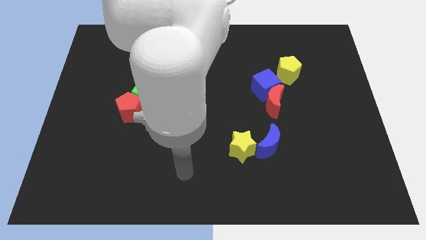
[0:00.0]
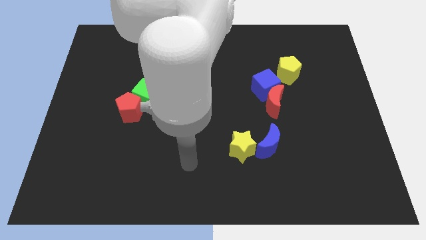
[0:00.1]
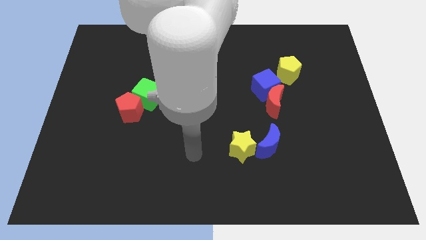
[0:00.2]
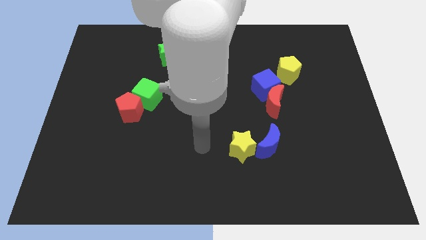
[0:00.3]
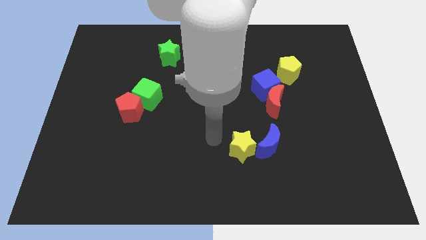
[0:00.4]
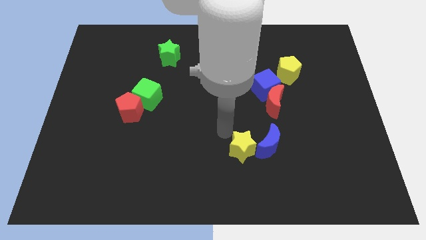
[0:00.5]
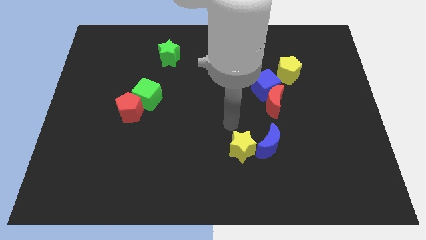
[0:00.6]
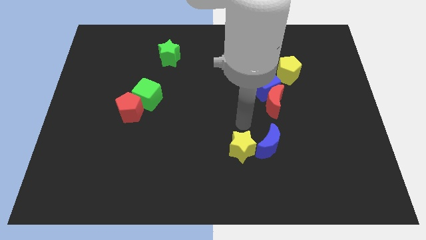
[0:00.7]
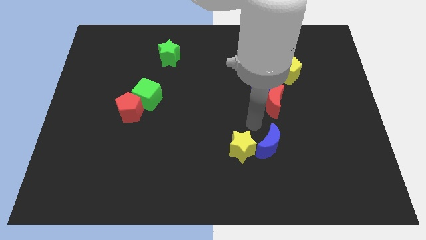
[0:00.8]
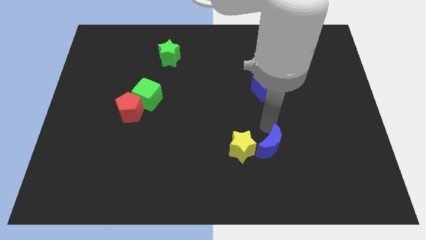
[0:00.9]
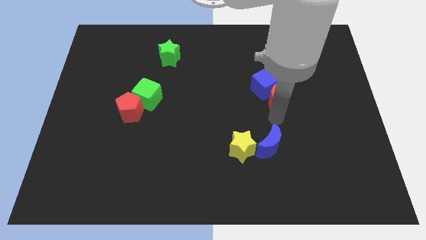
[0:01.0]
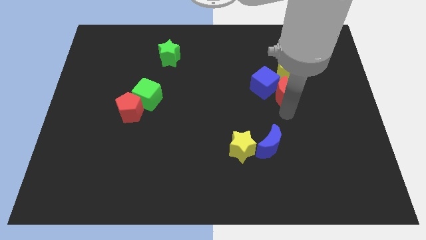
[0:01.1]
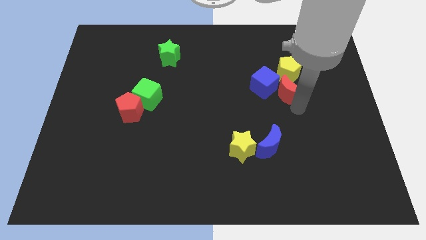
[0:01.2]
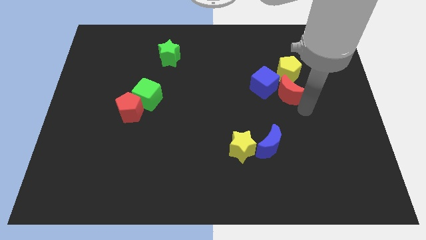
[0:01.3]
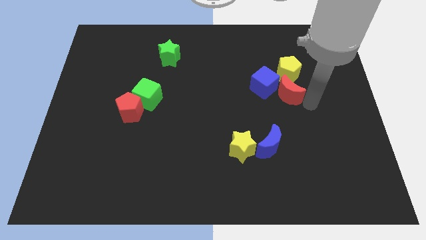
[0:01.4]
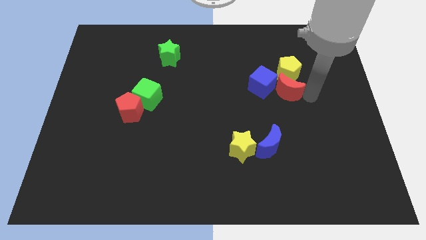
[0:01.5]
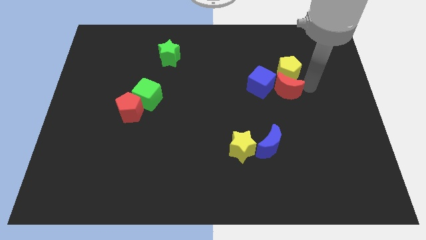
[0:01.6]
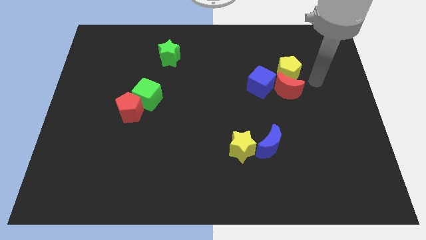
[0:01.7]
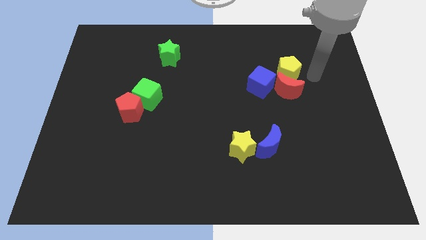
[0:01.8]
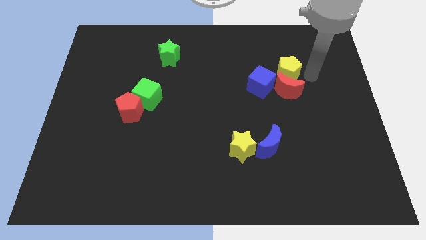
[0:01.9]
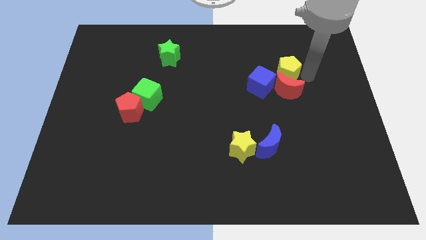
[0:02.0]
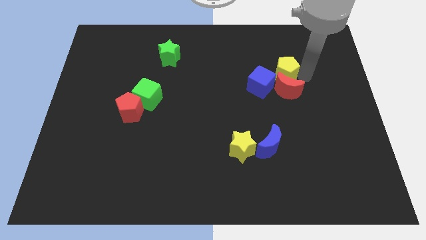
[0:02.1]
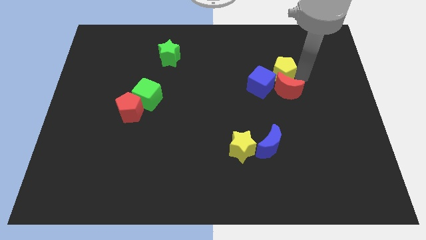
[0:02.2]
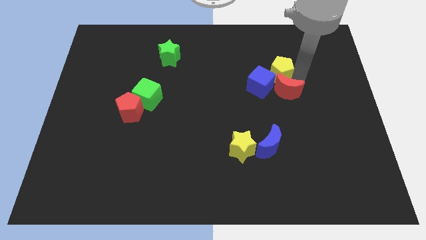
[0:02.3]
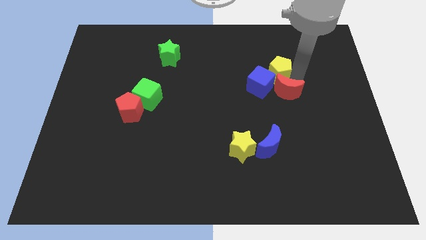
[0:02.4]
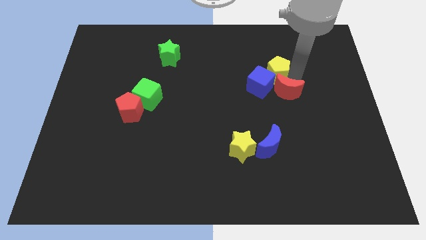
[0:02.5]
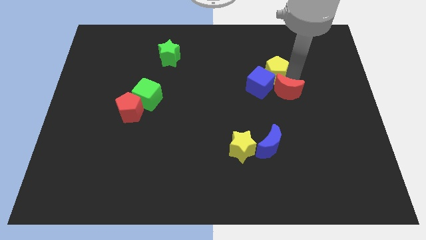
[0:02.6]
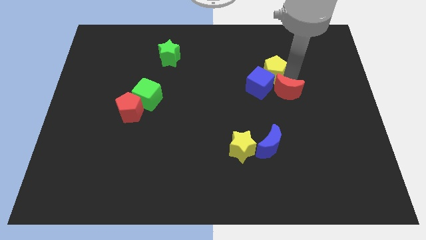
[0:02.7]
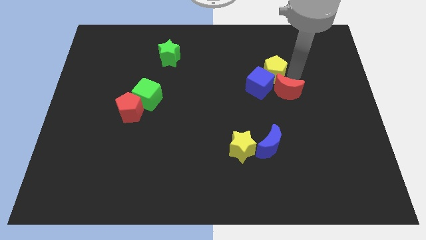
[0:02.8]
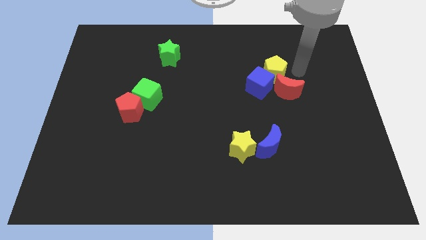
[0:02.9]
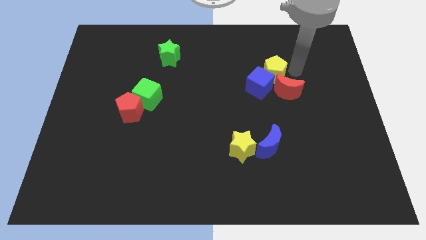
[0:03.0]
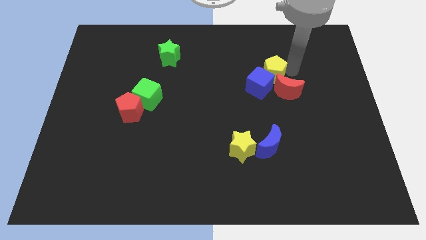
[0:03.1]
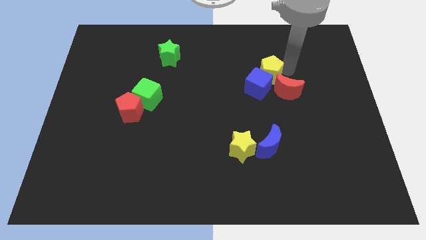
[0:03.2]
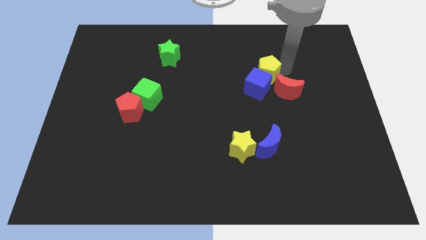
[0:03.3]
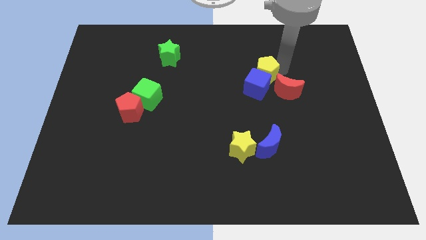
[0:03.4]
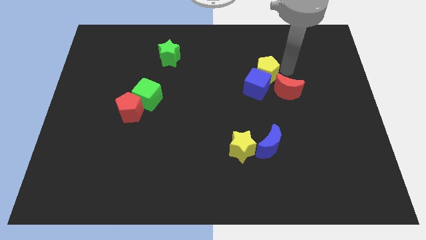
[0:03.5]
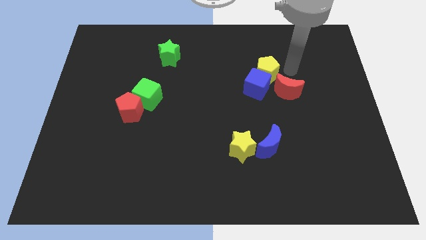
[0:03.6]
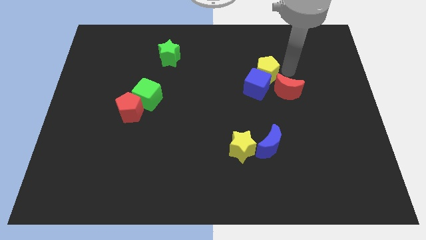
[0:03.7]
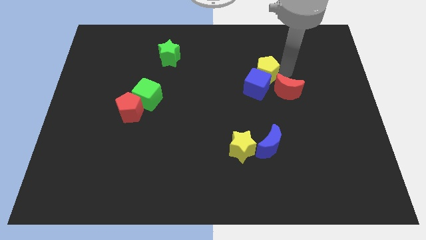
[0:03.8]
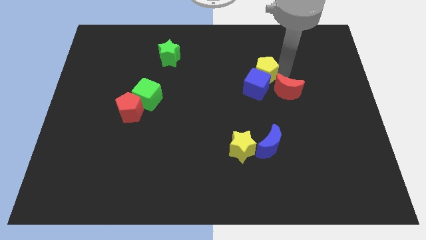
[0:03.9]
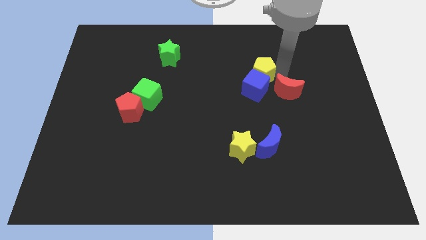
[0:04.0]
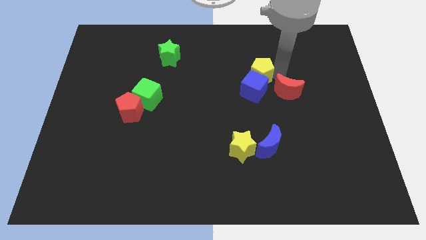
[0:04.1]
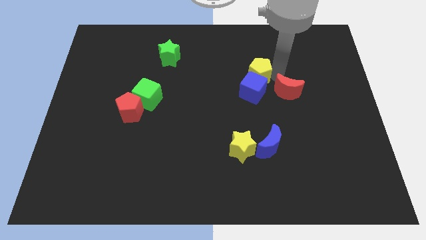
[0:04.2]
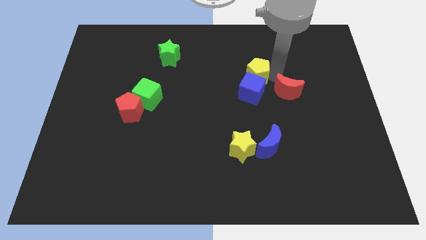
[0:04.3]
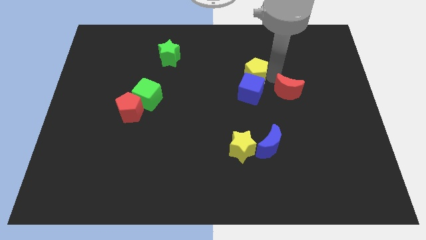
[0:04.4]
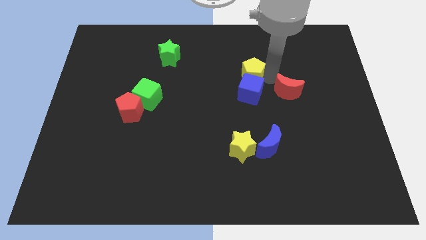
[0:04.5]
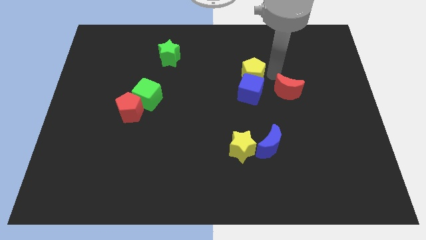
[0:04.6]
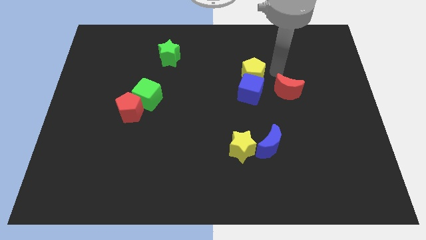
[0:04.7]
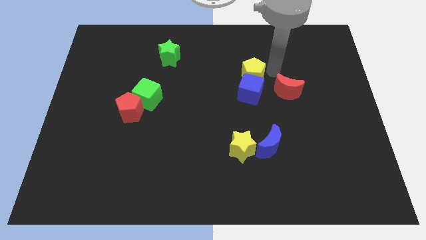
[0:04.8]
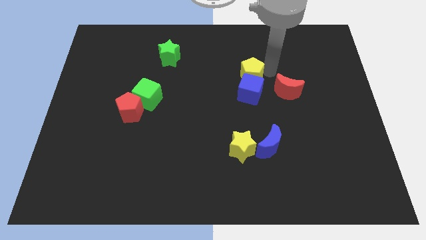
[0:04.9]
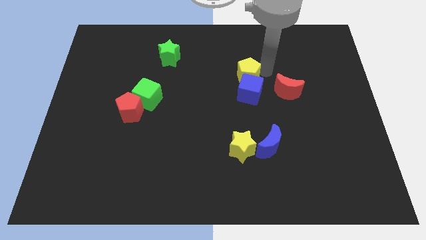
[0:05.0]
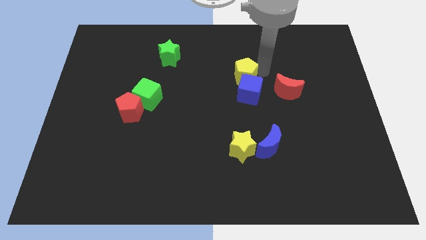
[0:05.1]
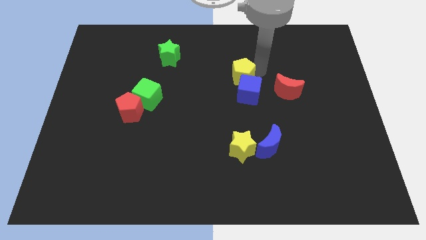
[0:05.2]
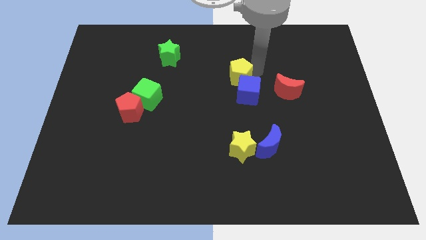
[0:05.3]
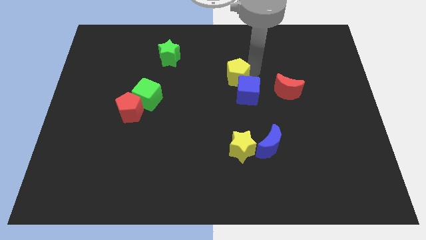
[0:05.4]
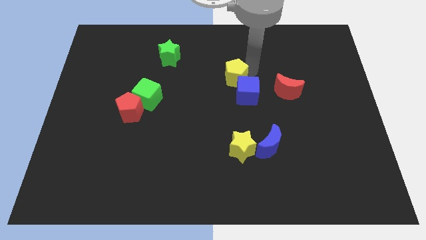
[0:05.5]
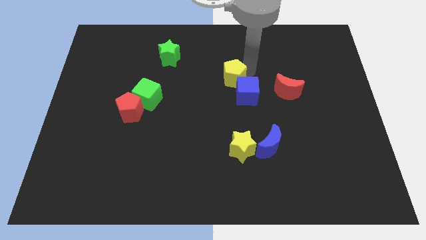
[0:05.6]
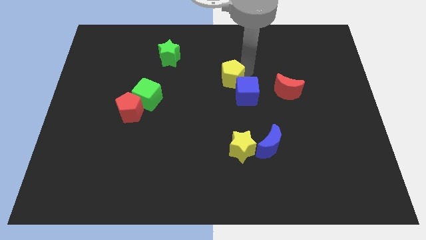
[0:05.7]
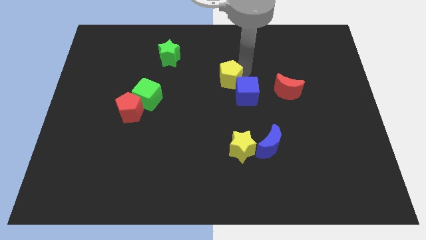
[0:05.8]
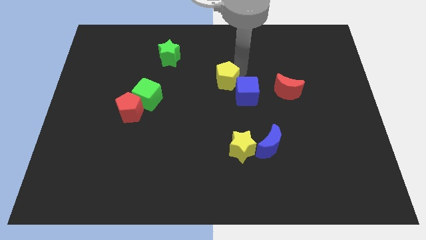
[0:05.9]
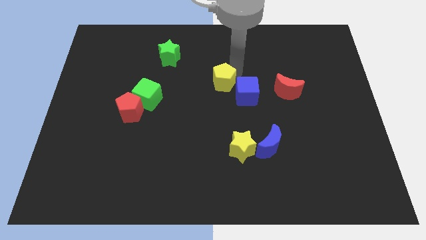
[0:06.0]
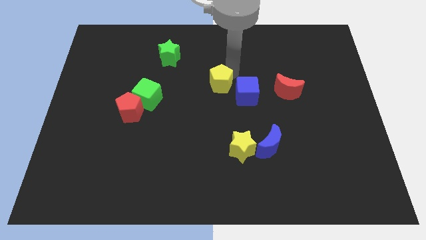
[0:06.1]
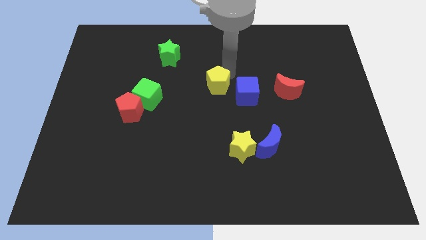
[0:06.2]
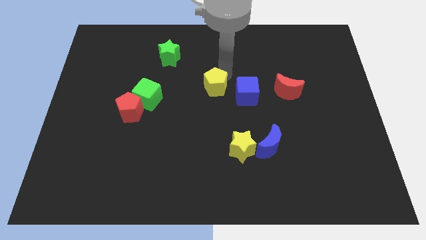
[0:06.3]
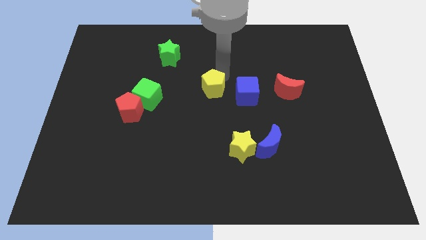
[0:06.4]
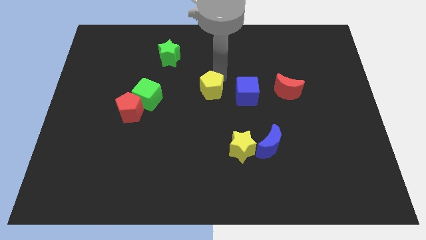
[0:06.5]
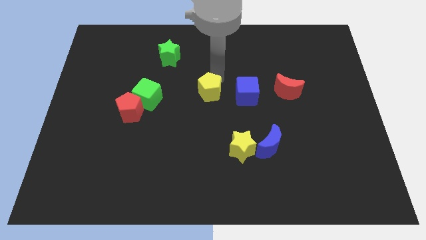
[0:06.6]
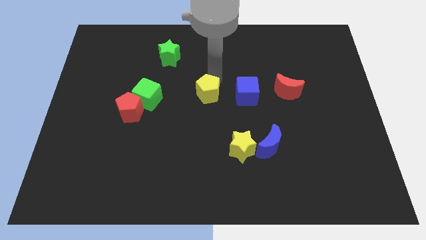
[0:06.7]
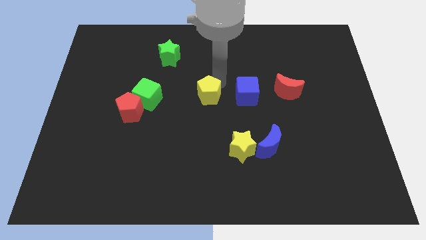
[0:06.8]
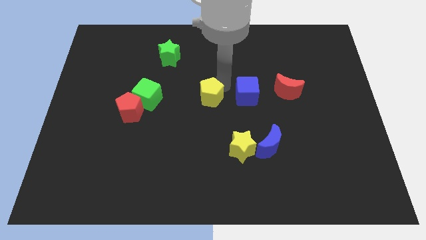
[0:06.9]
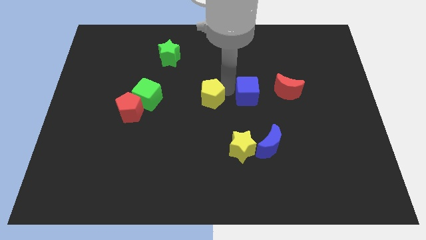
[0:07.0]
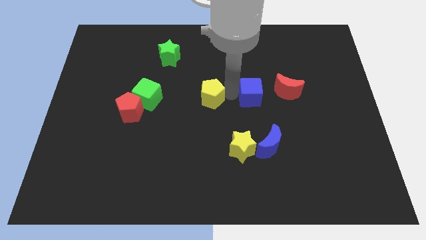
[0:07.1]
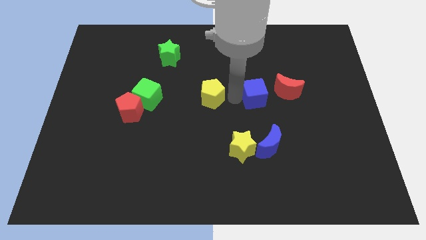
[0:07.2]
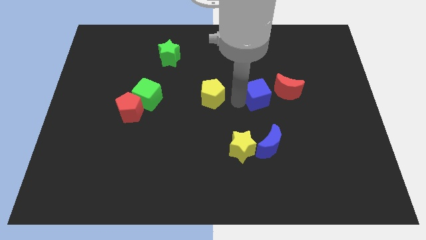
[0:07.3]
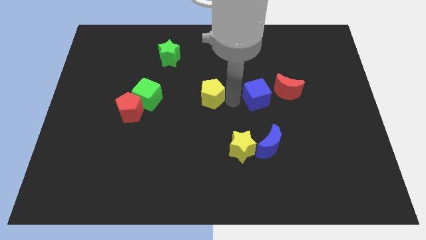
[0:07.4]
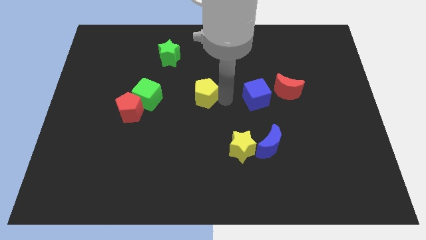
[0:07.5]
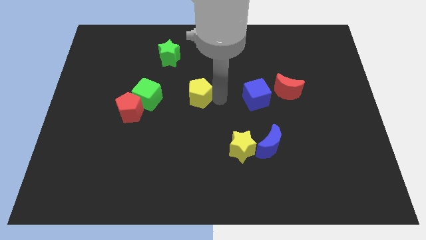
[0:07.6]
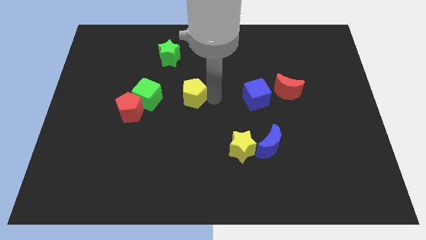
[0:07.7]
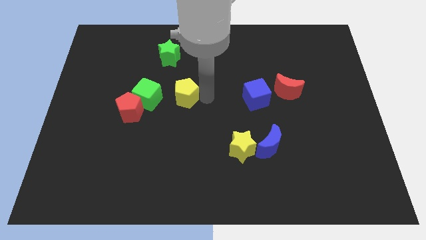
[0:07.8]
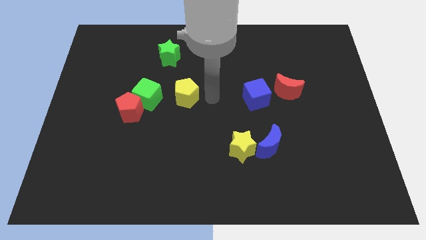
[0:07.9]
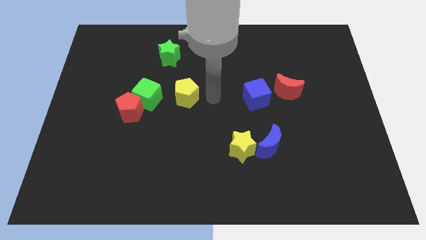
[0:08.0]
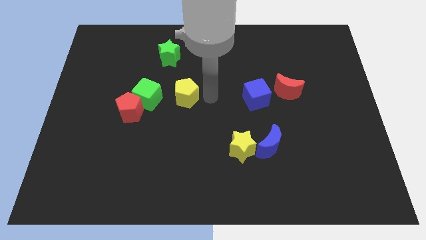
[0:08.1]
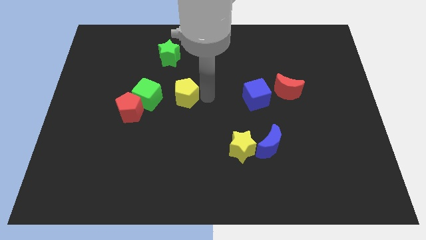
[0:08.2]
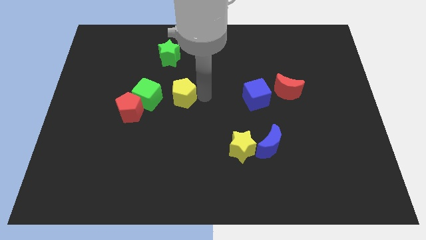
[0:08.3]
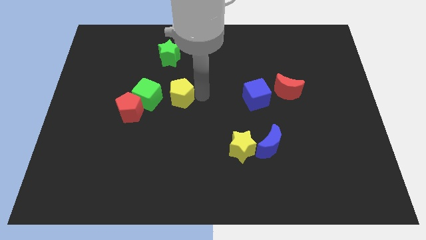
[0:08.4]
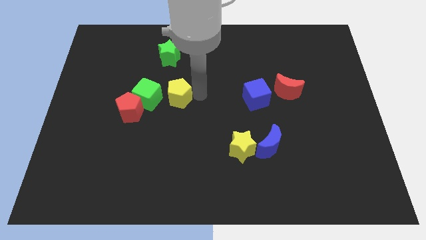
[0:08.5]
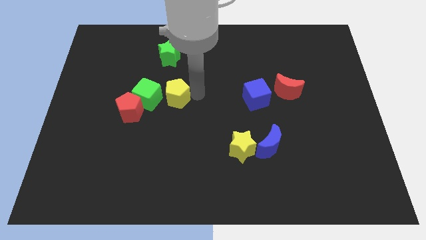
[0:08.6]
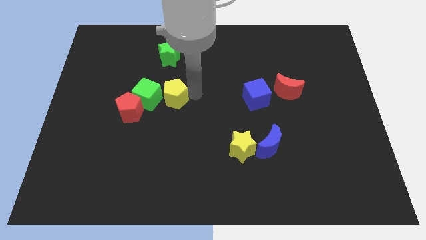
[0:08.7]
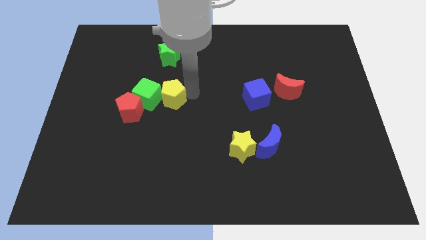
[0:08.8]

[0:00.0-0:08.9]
put the yellow pentagon to the green cube
